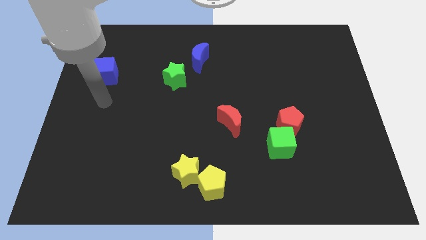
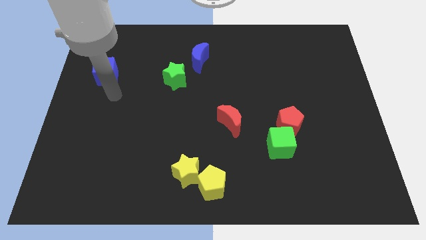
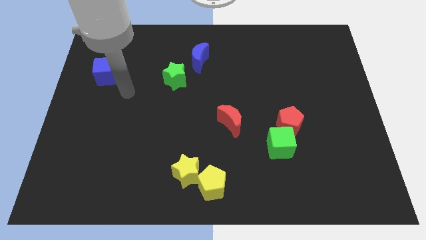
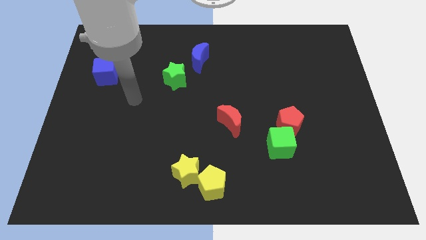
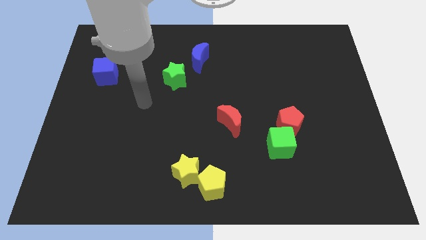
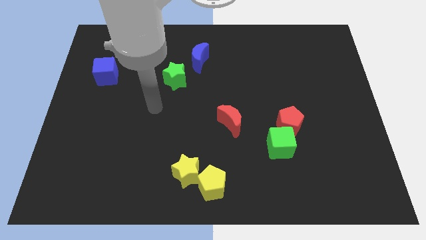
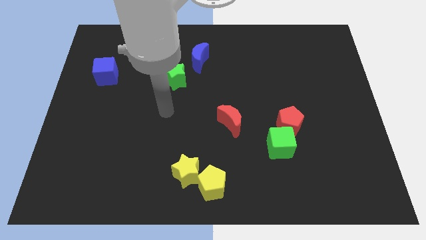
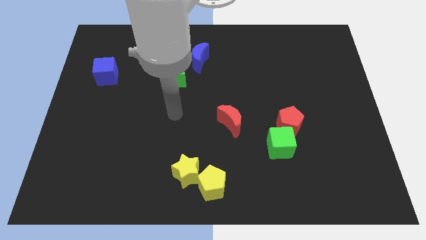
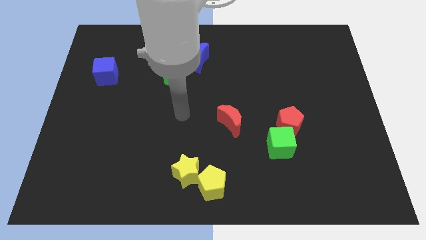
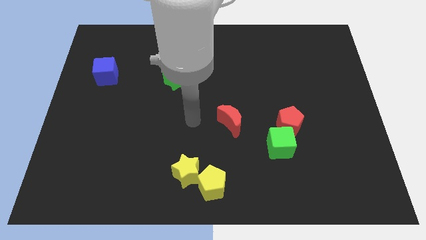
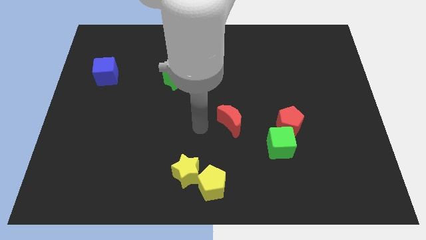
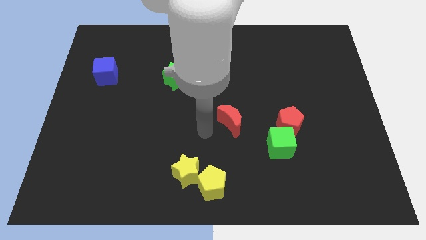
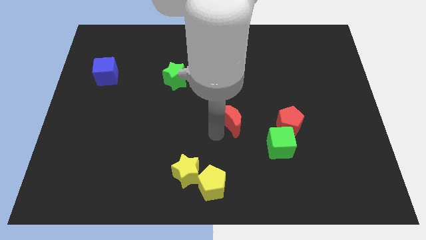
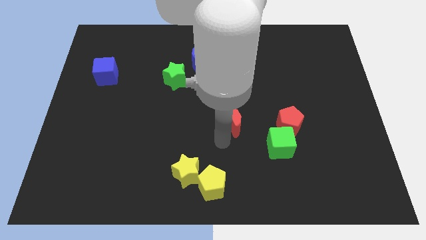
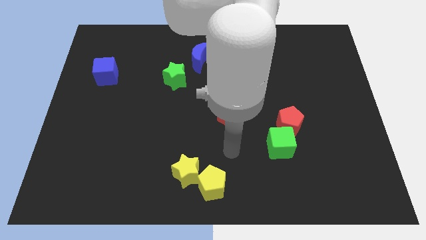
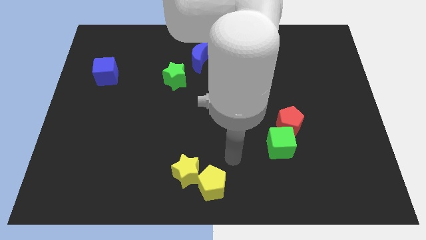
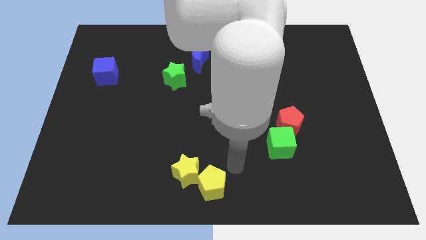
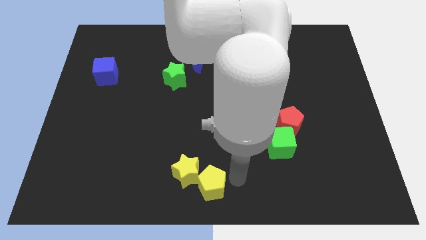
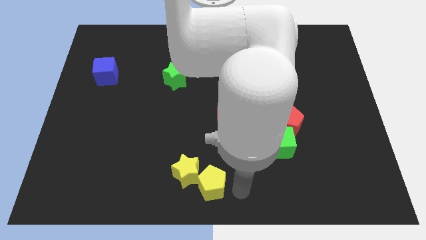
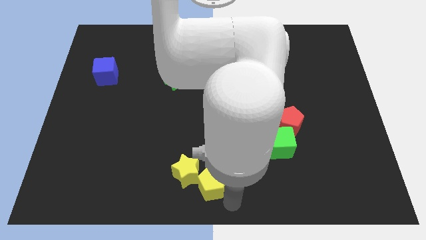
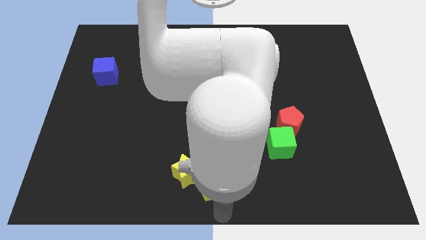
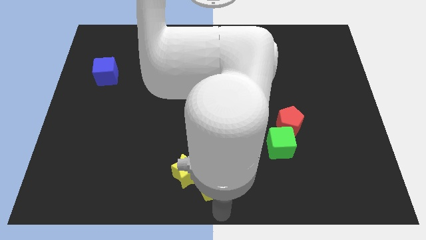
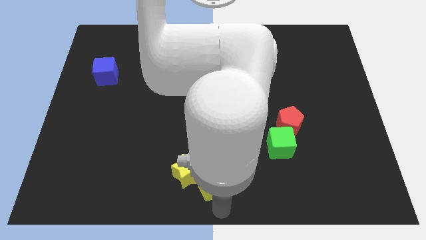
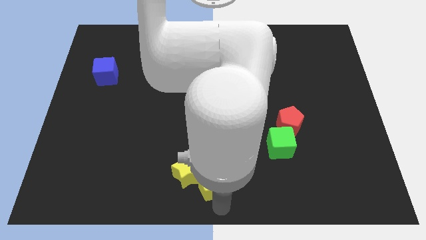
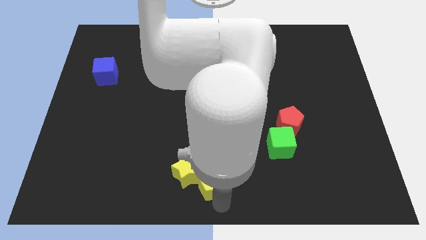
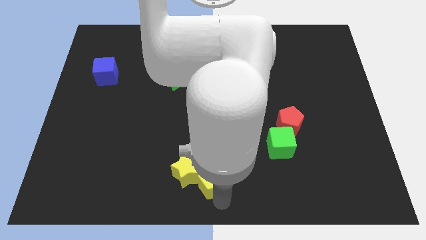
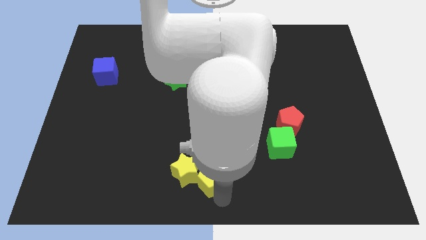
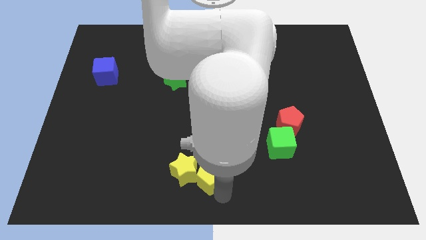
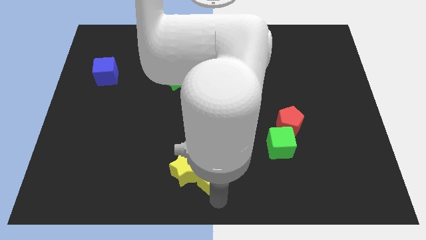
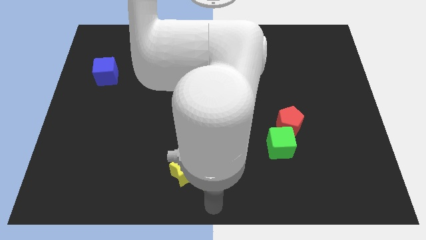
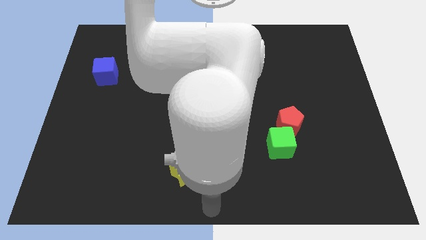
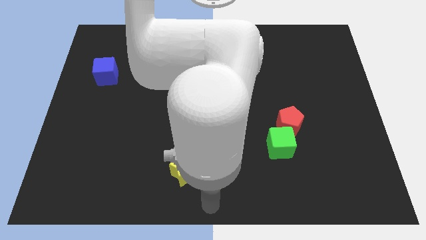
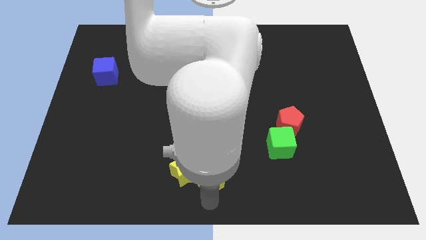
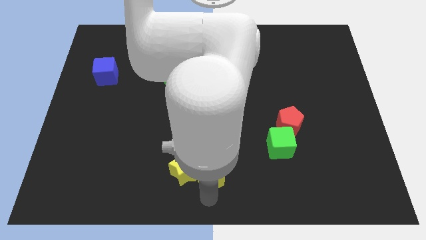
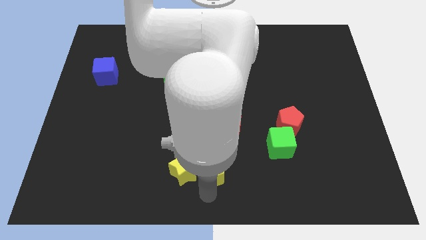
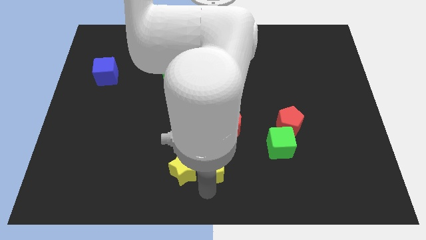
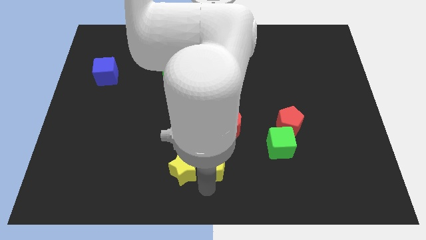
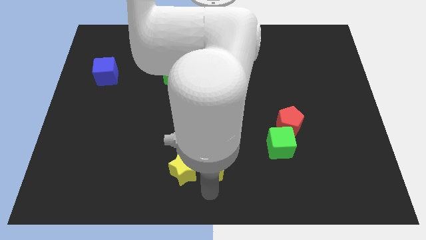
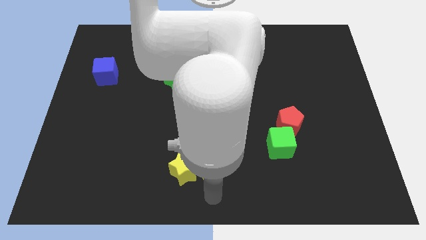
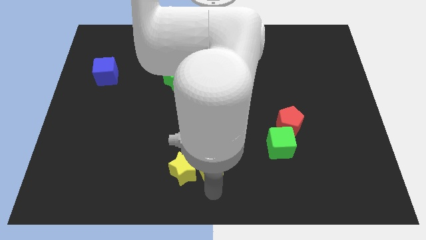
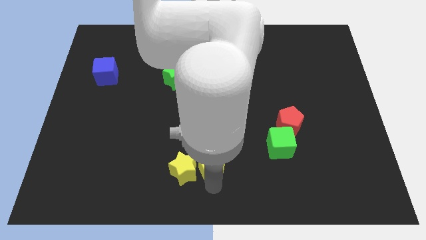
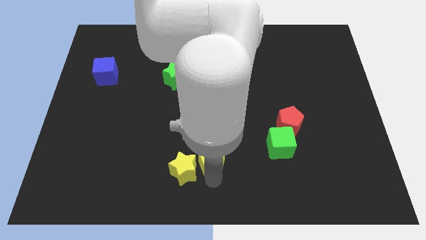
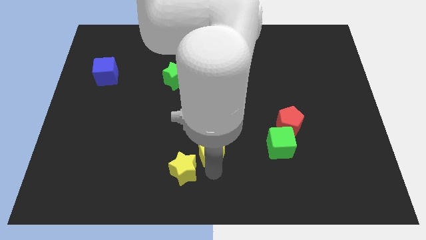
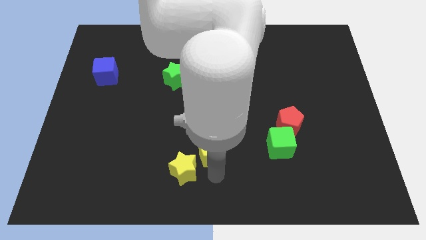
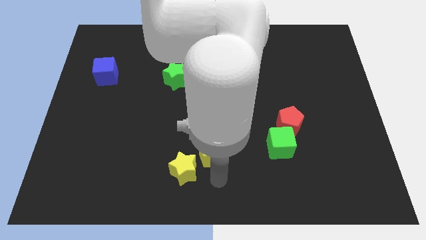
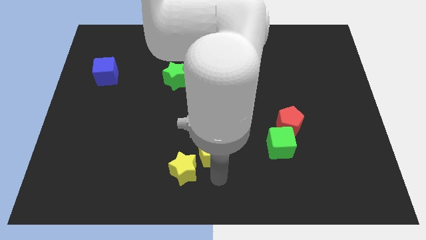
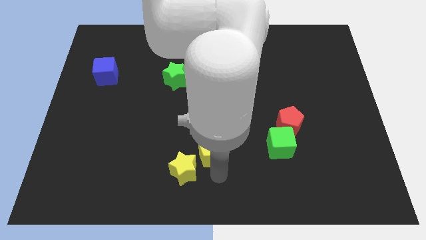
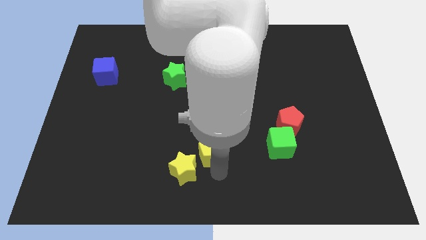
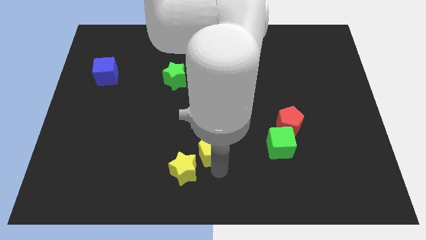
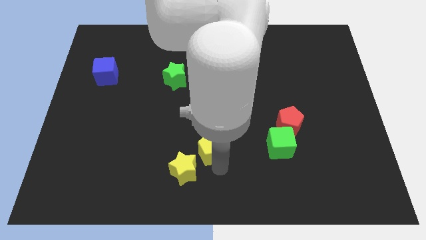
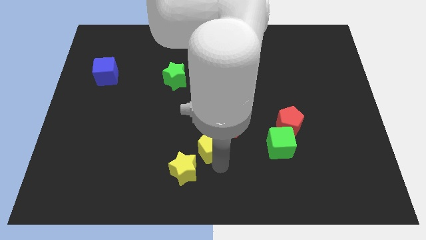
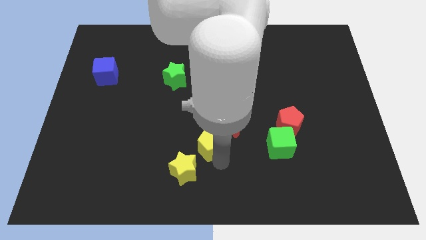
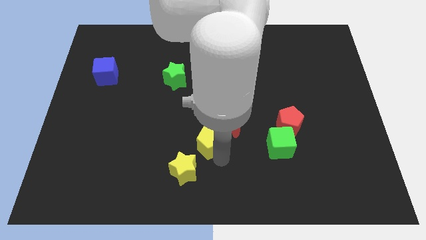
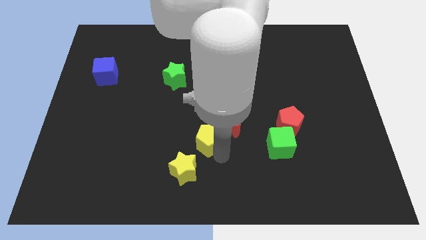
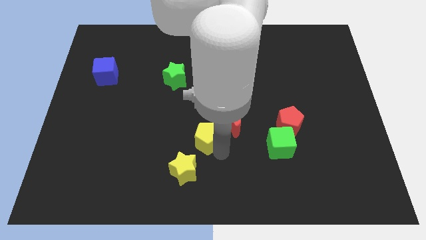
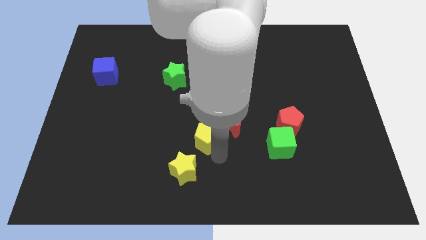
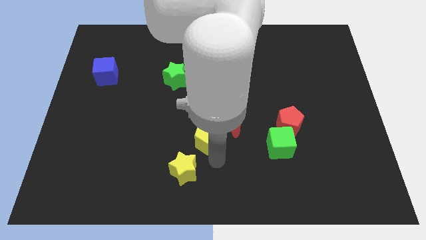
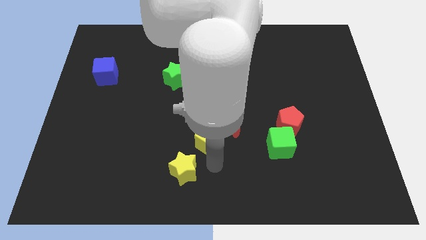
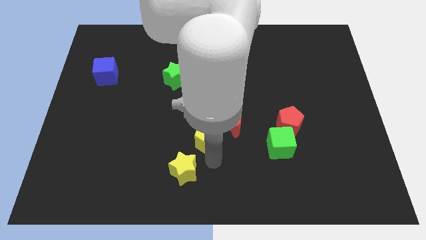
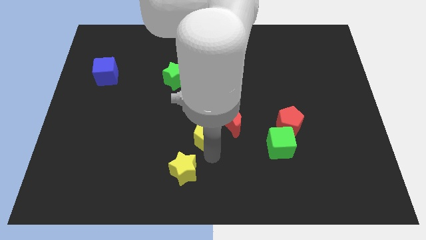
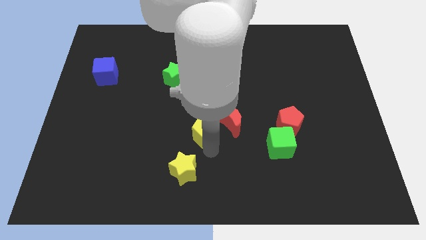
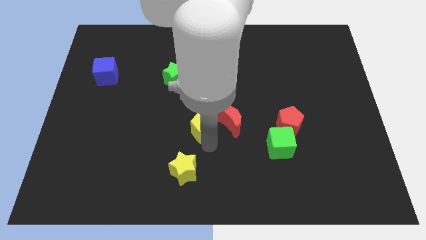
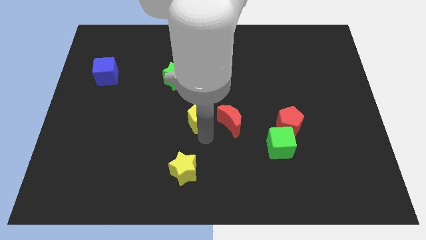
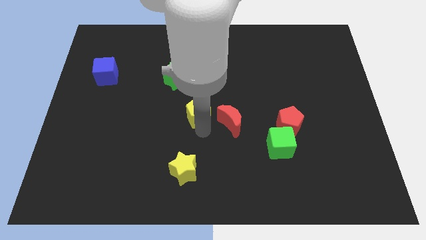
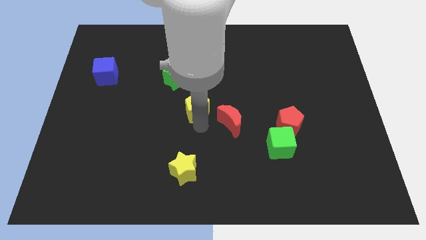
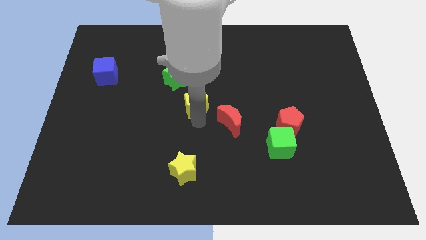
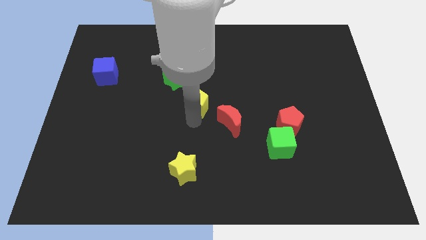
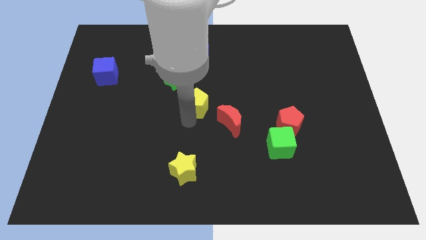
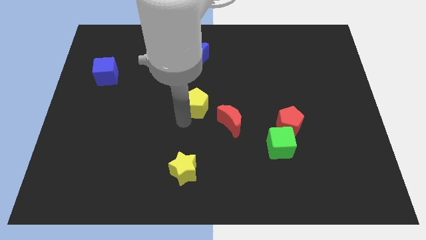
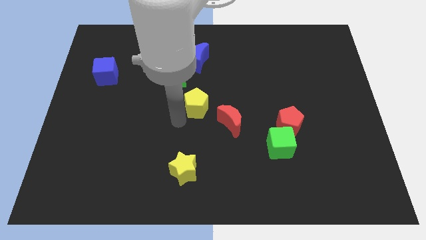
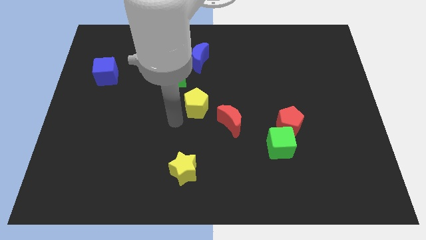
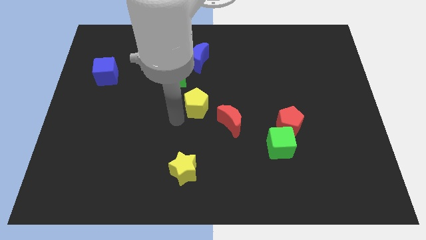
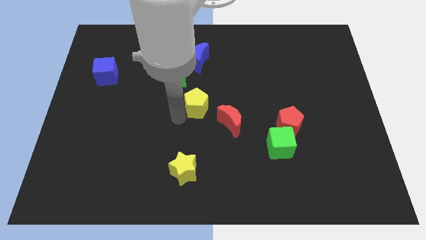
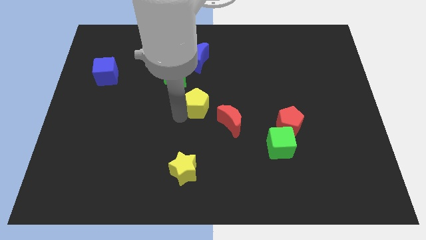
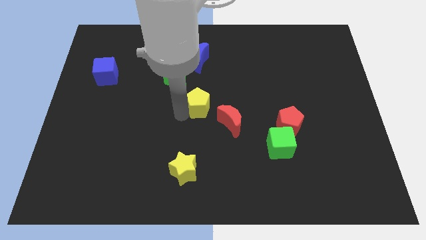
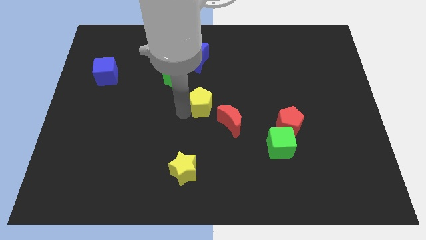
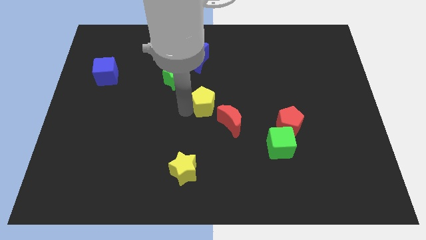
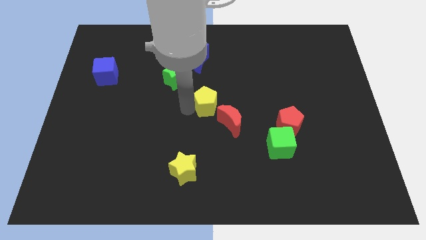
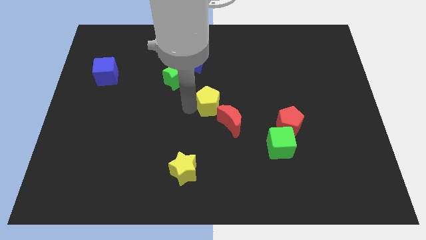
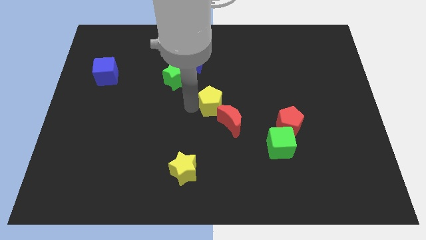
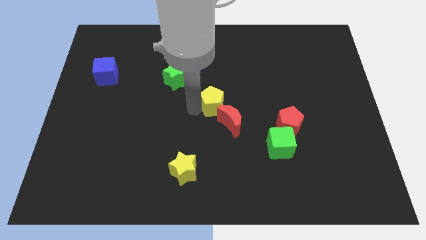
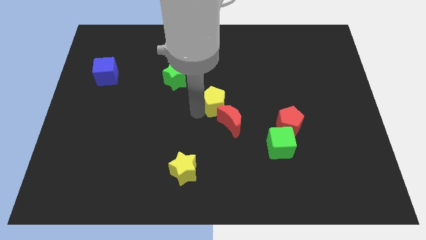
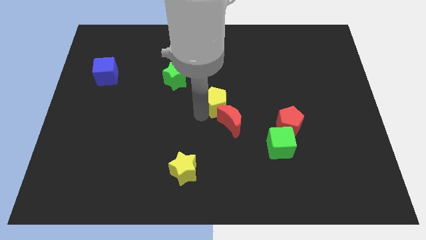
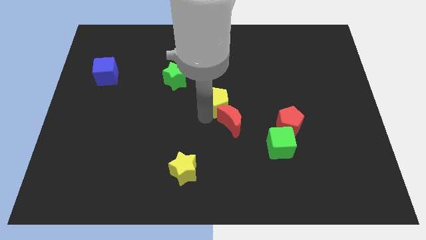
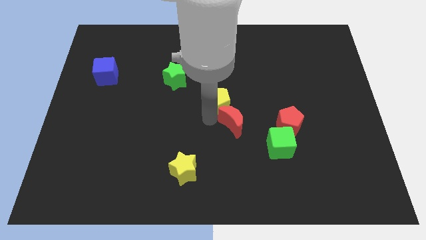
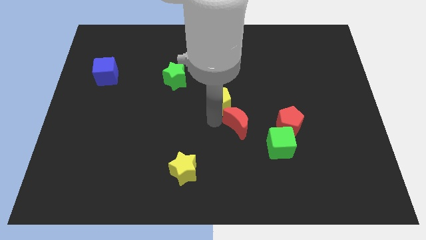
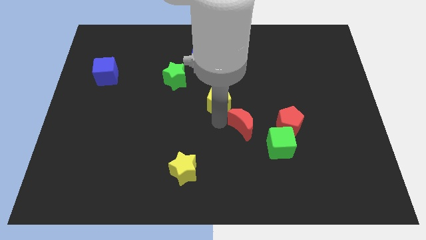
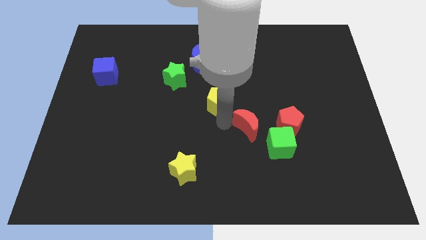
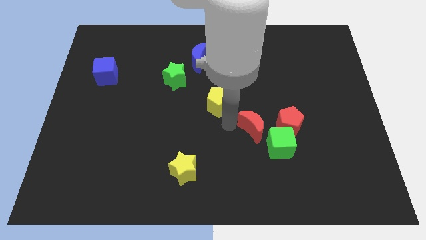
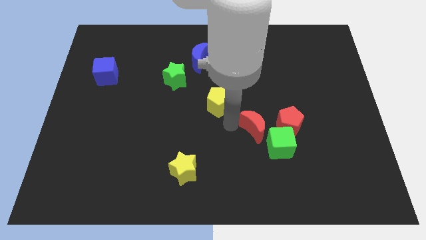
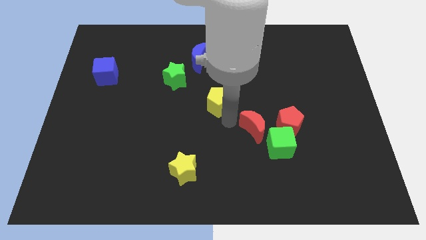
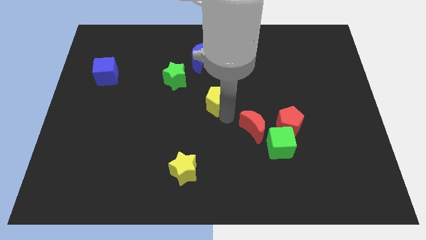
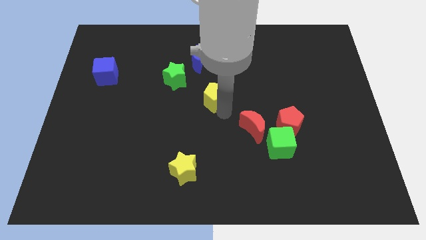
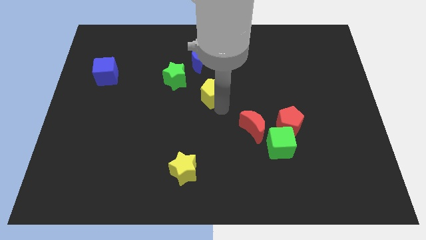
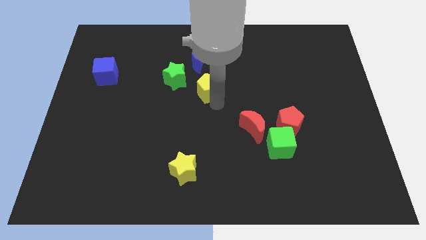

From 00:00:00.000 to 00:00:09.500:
push the yellow pentagon to the right of the green star
